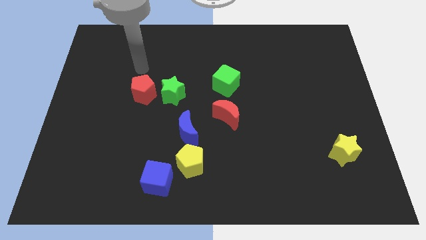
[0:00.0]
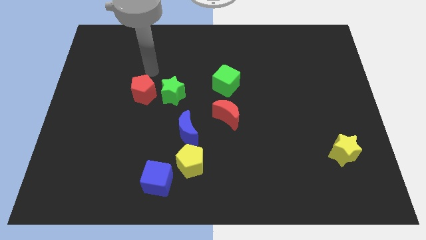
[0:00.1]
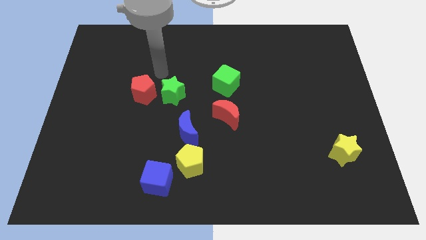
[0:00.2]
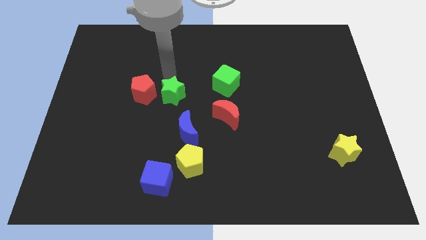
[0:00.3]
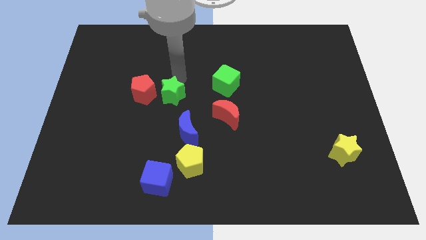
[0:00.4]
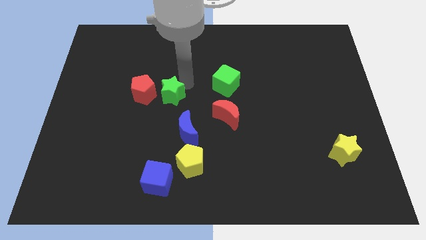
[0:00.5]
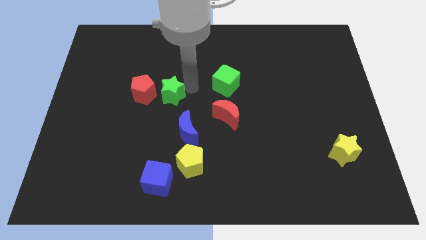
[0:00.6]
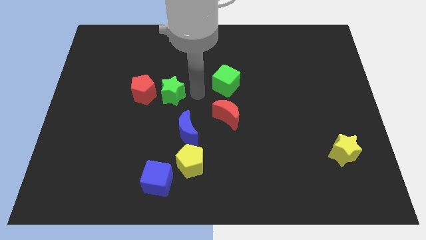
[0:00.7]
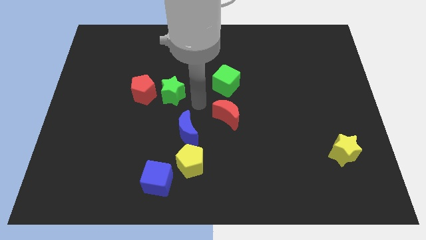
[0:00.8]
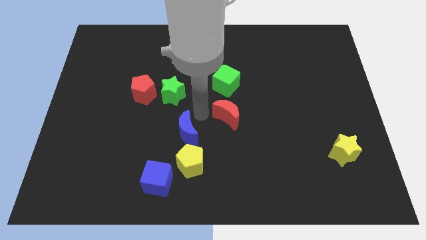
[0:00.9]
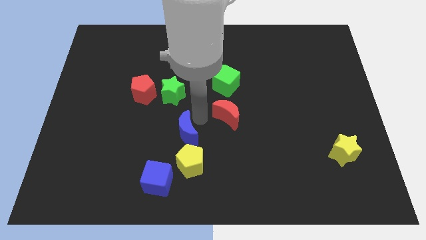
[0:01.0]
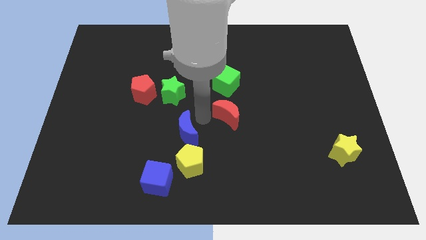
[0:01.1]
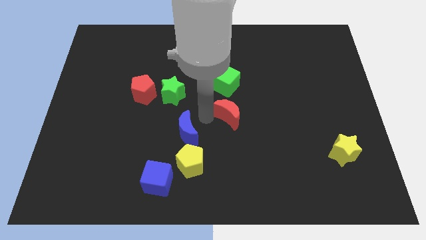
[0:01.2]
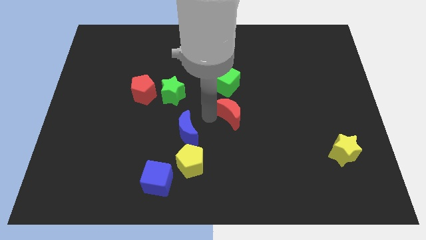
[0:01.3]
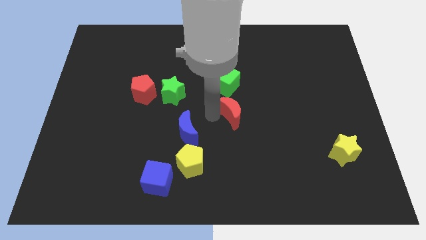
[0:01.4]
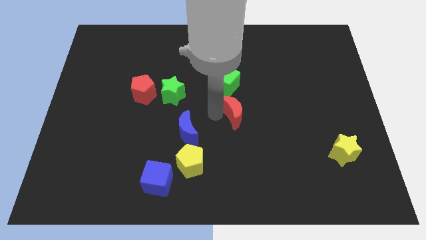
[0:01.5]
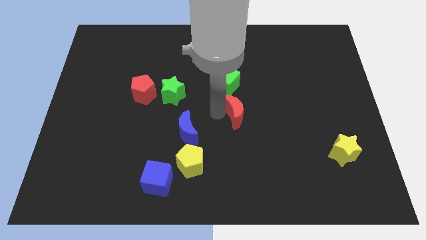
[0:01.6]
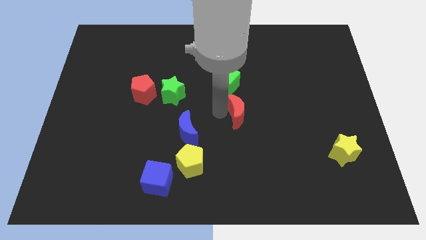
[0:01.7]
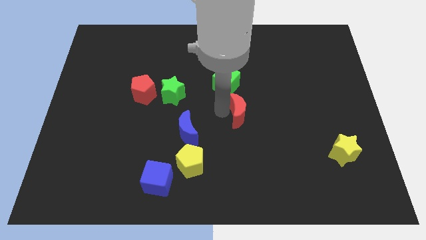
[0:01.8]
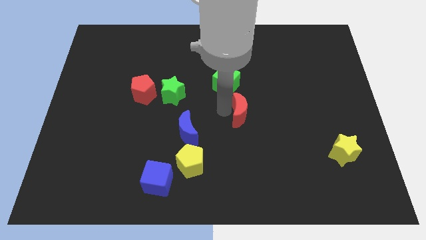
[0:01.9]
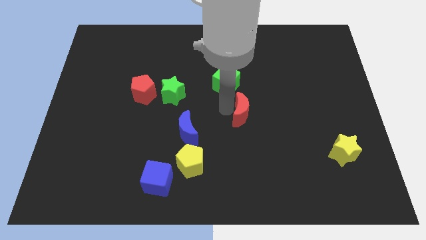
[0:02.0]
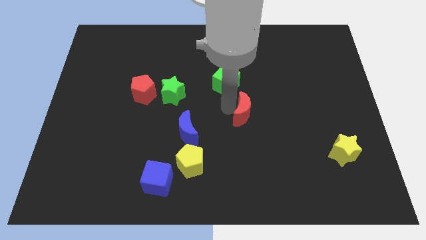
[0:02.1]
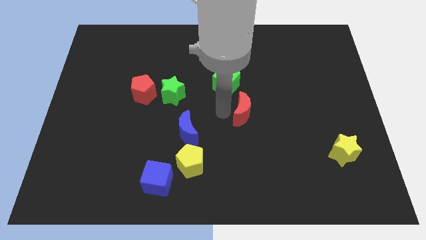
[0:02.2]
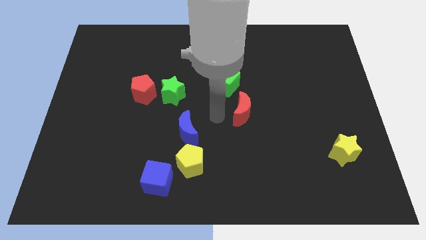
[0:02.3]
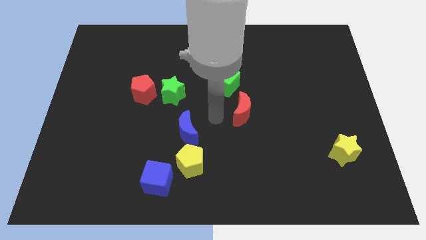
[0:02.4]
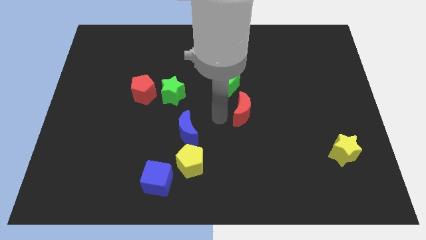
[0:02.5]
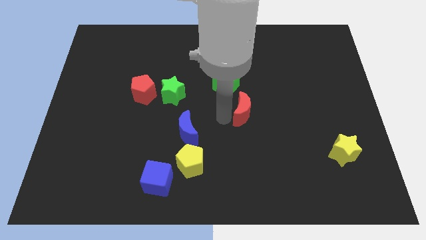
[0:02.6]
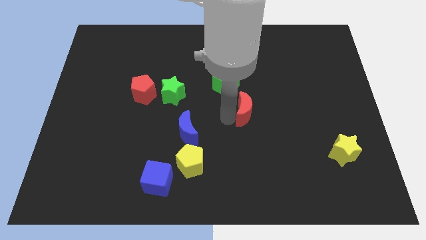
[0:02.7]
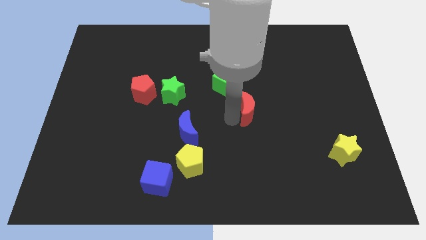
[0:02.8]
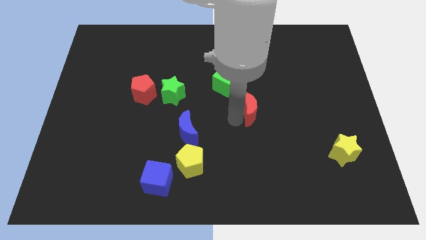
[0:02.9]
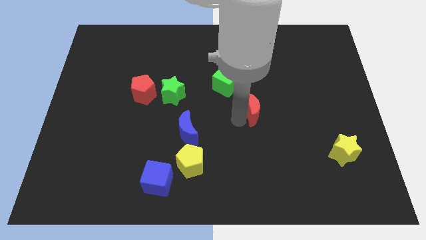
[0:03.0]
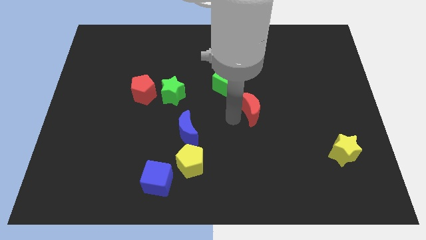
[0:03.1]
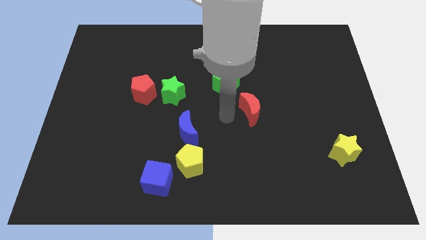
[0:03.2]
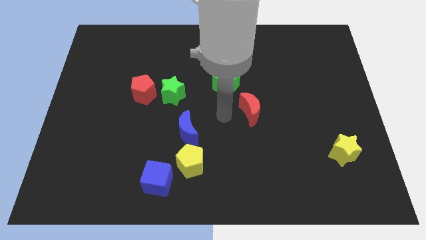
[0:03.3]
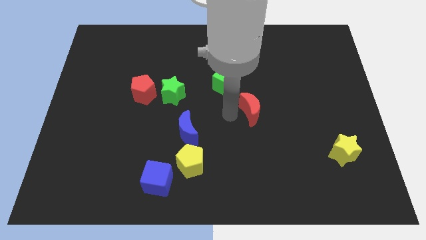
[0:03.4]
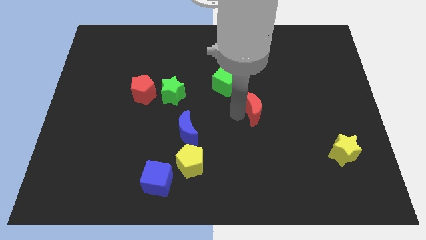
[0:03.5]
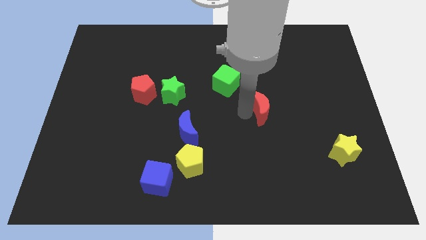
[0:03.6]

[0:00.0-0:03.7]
push the red moon to the right a little bit

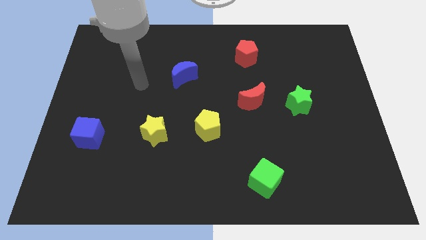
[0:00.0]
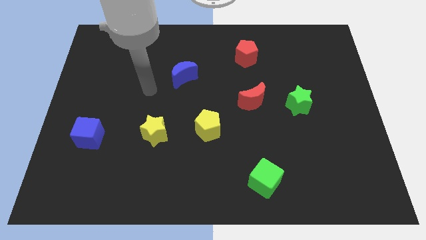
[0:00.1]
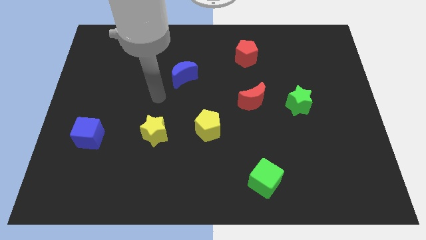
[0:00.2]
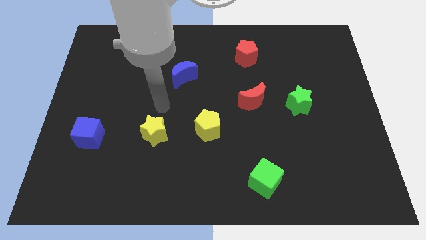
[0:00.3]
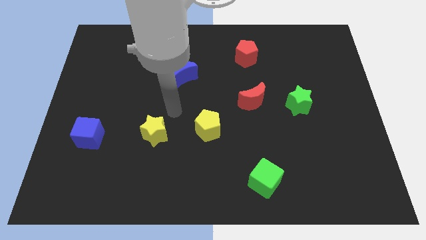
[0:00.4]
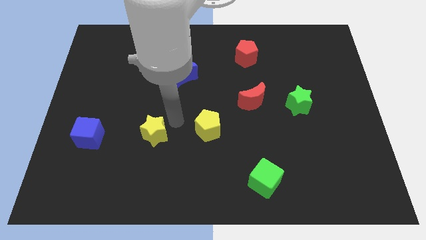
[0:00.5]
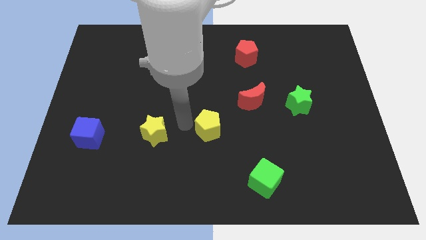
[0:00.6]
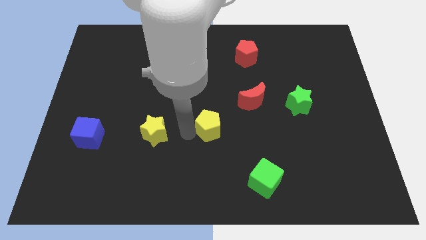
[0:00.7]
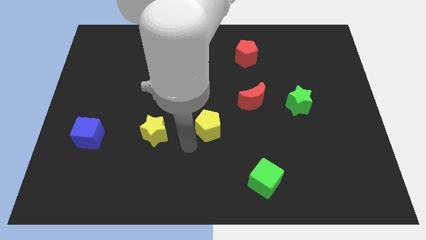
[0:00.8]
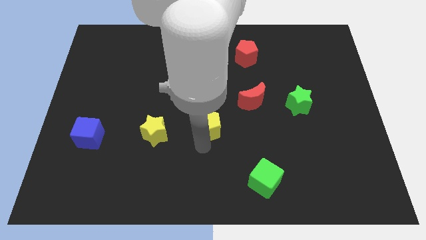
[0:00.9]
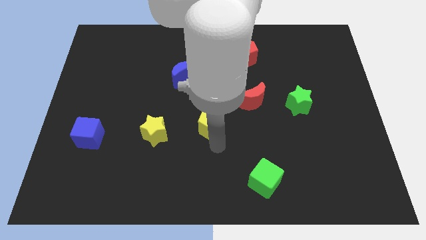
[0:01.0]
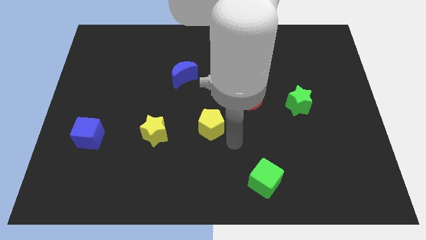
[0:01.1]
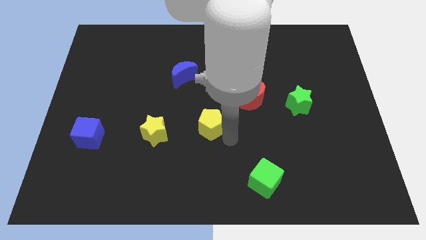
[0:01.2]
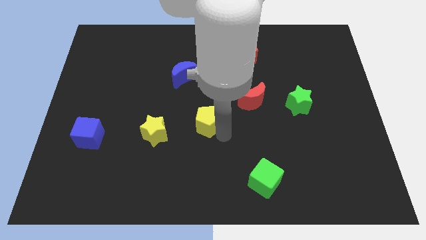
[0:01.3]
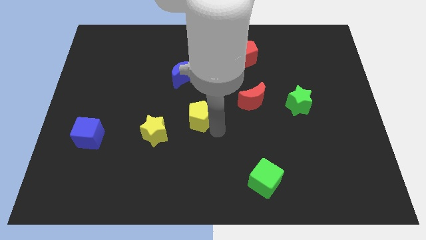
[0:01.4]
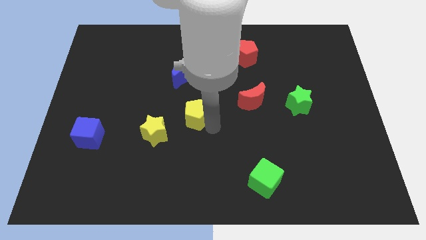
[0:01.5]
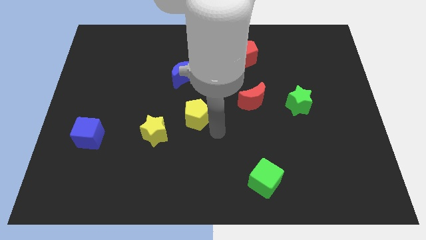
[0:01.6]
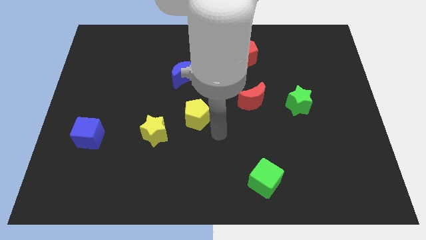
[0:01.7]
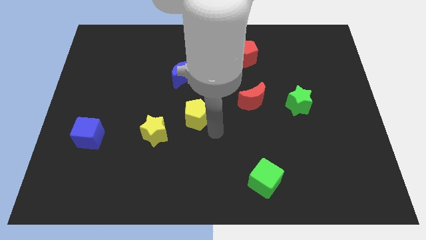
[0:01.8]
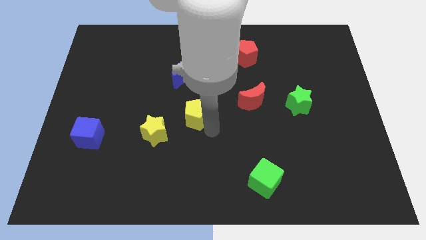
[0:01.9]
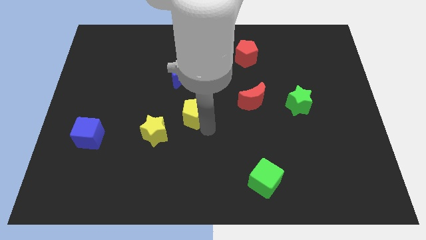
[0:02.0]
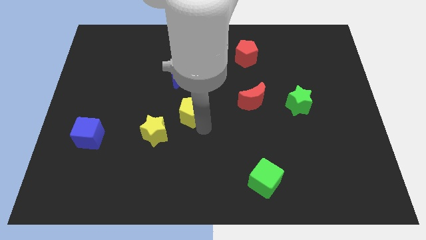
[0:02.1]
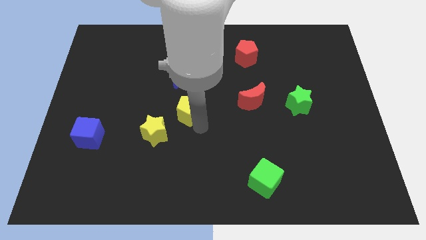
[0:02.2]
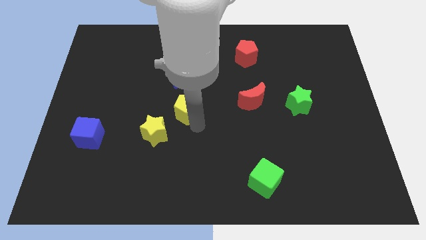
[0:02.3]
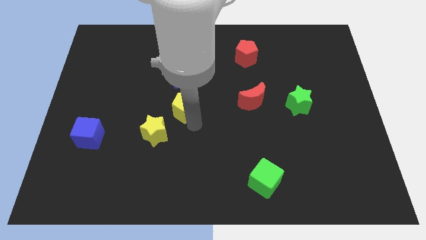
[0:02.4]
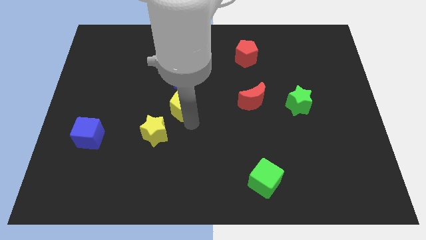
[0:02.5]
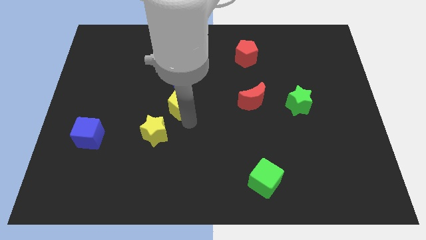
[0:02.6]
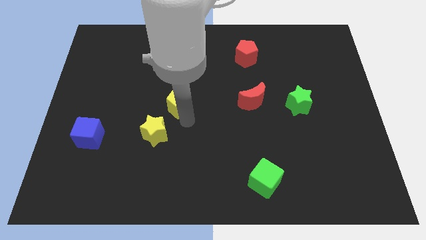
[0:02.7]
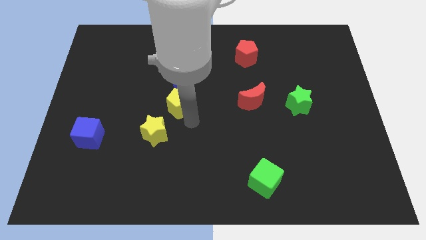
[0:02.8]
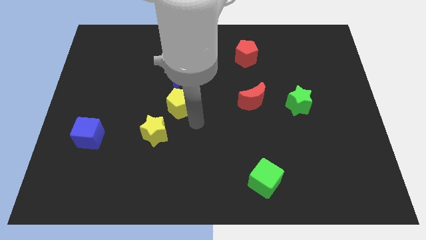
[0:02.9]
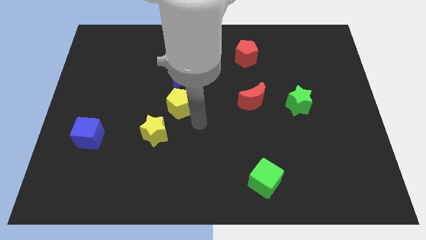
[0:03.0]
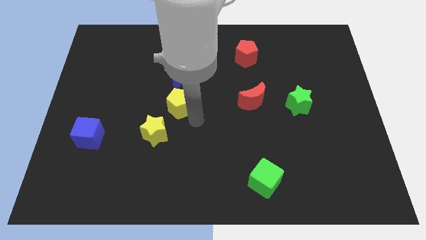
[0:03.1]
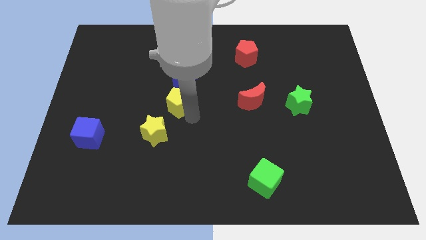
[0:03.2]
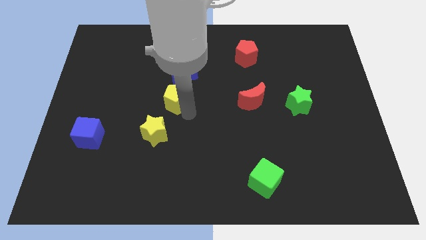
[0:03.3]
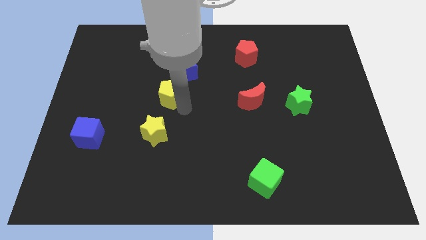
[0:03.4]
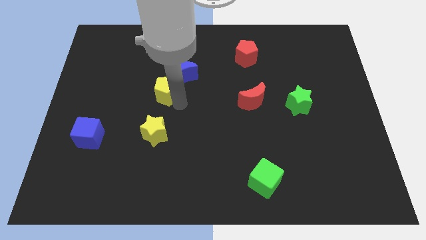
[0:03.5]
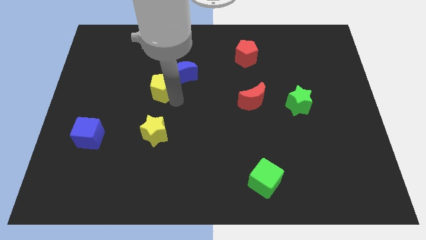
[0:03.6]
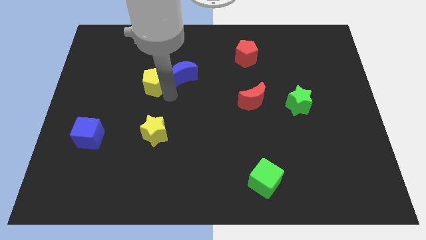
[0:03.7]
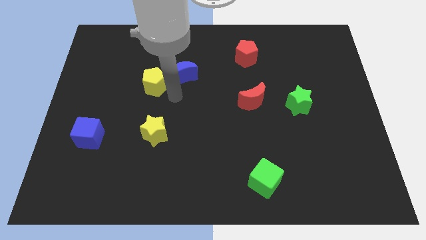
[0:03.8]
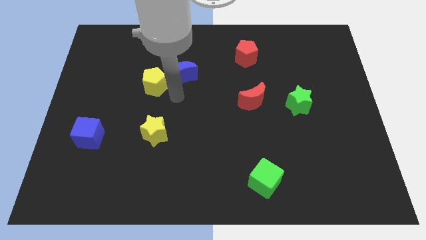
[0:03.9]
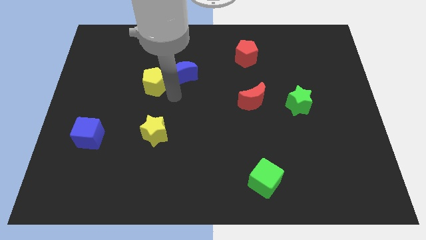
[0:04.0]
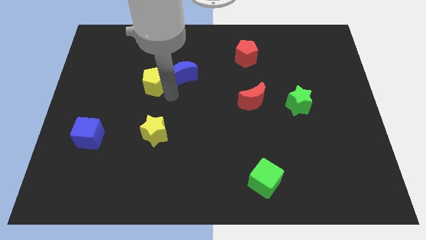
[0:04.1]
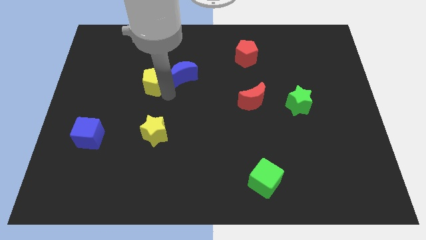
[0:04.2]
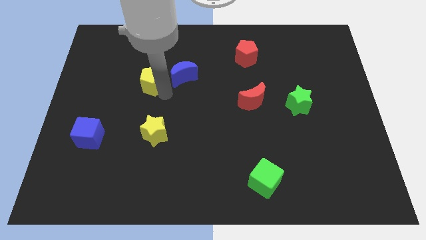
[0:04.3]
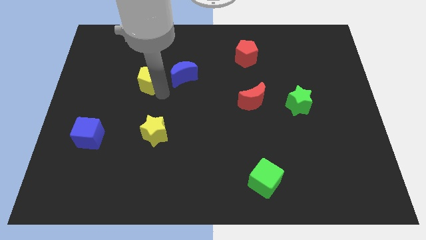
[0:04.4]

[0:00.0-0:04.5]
push the yellow pentagon up and then left

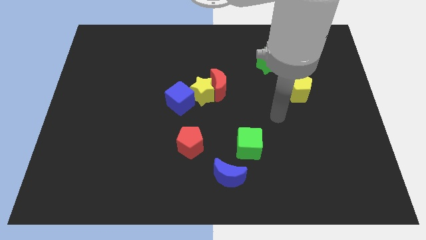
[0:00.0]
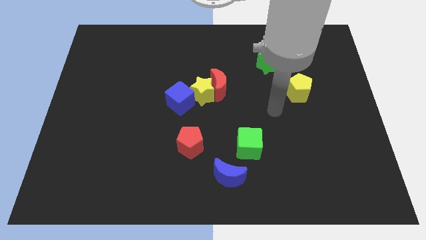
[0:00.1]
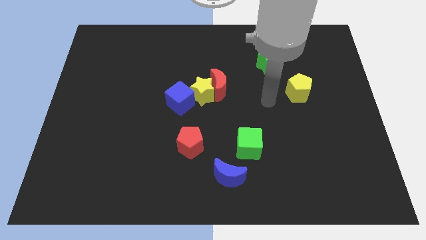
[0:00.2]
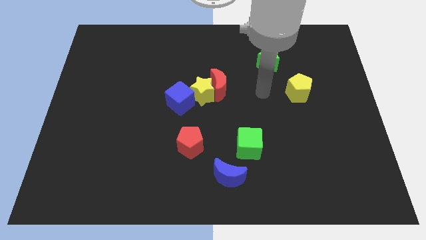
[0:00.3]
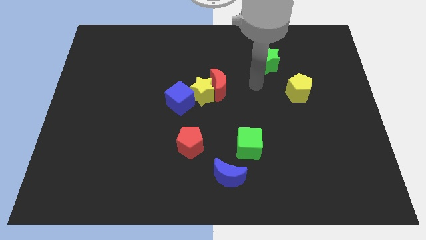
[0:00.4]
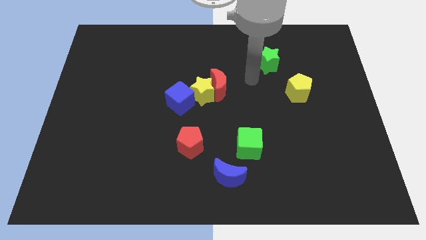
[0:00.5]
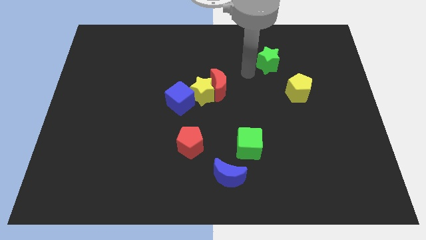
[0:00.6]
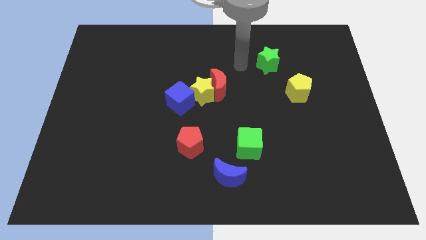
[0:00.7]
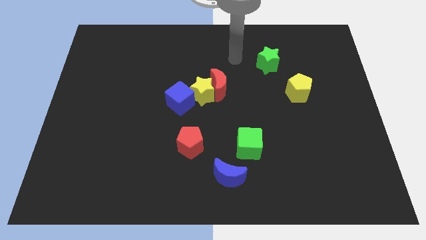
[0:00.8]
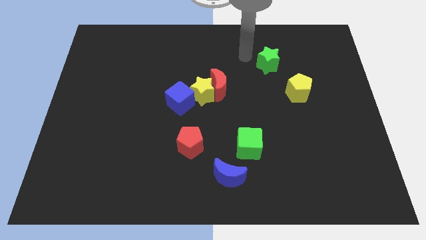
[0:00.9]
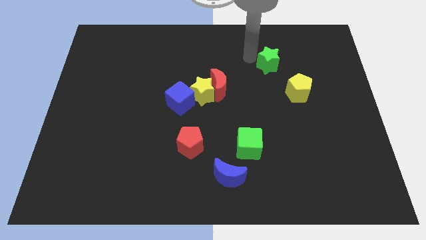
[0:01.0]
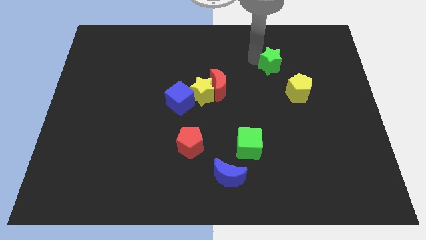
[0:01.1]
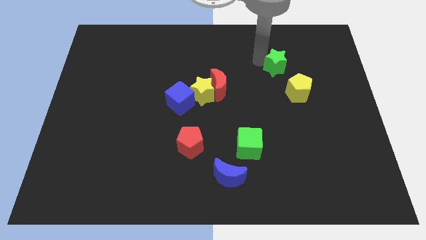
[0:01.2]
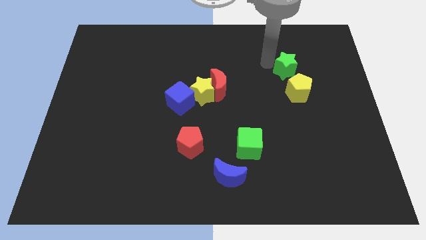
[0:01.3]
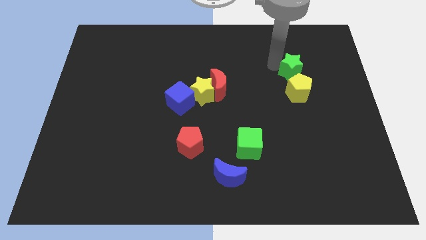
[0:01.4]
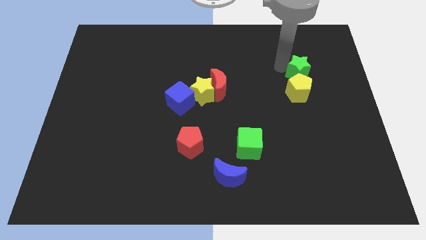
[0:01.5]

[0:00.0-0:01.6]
slide the green star diagonally down and to the right slightly
